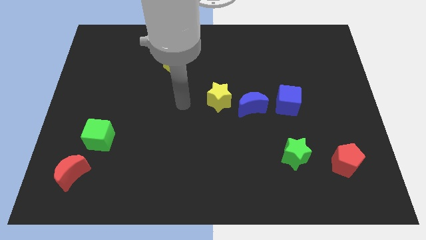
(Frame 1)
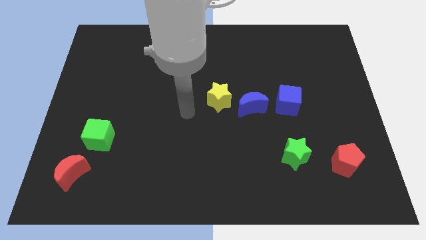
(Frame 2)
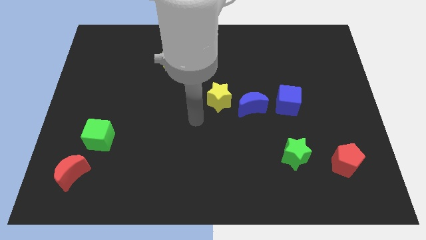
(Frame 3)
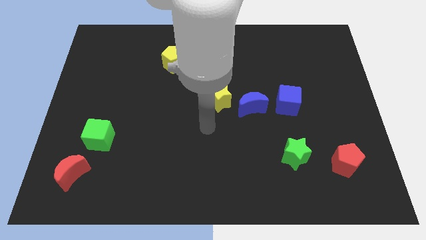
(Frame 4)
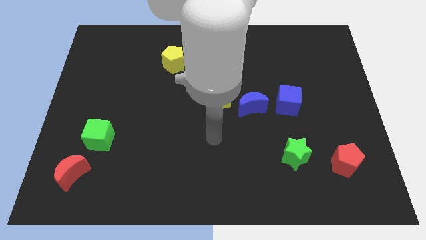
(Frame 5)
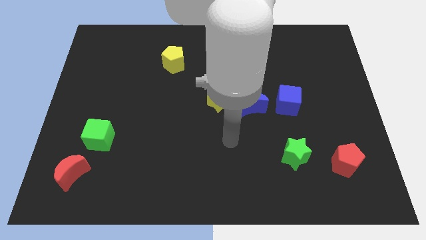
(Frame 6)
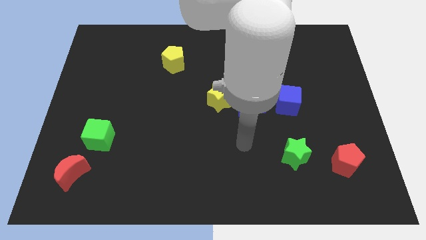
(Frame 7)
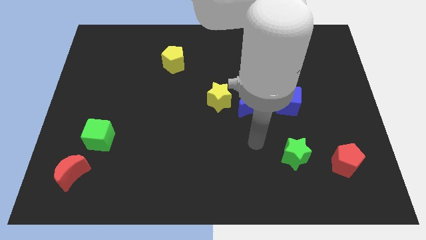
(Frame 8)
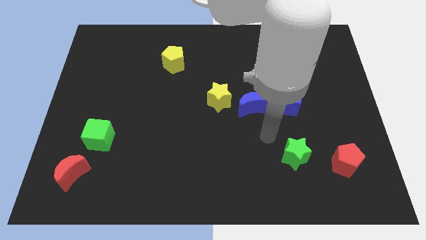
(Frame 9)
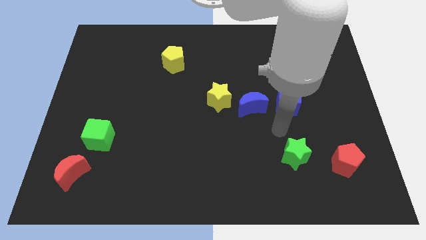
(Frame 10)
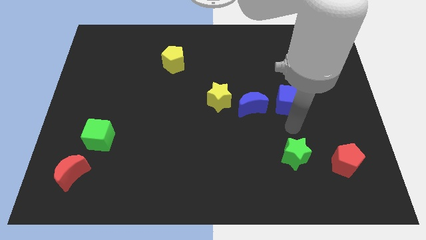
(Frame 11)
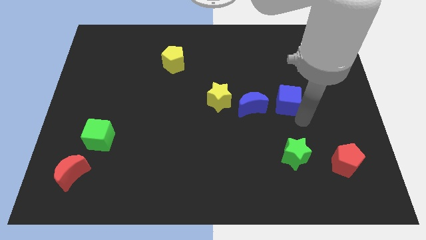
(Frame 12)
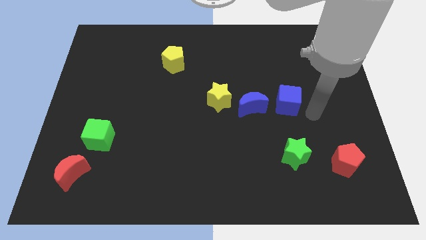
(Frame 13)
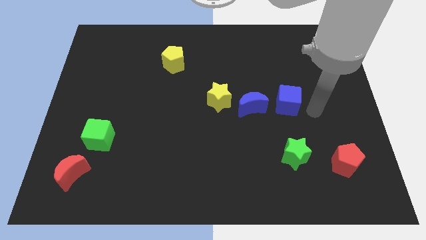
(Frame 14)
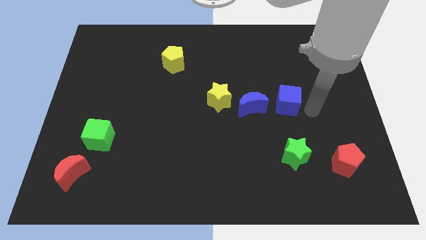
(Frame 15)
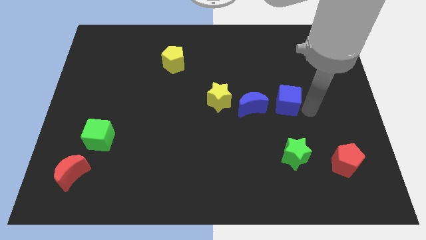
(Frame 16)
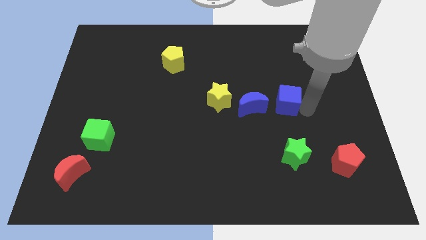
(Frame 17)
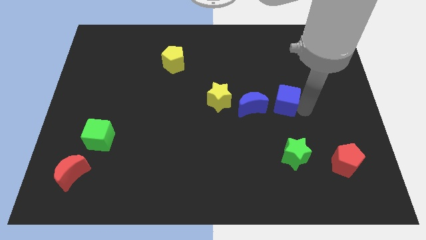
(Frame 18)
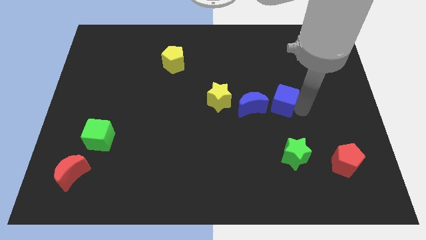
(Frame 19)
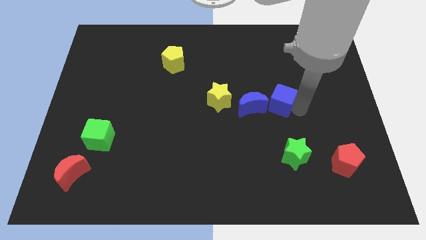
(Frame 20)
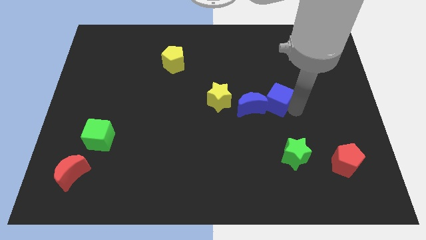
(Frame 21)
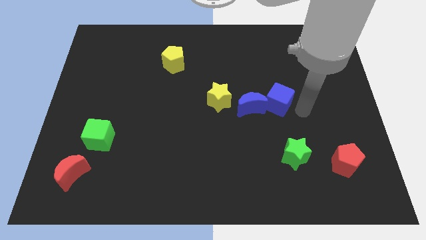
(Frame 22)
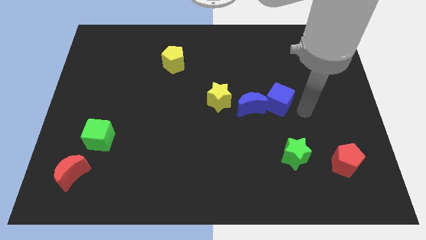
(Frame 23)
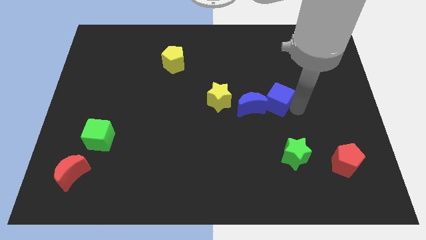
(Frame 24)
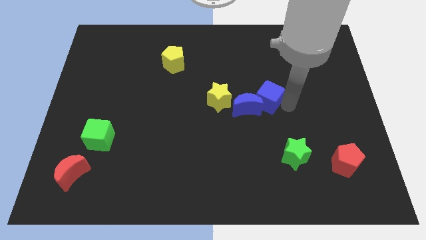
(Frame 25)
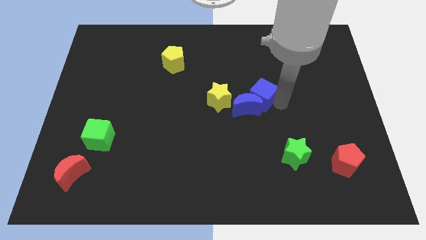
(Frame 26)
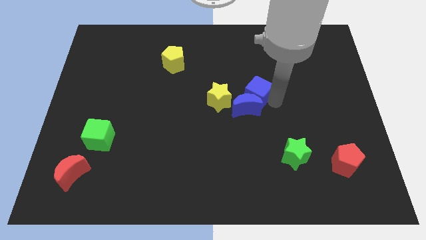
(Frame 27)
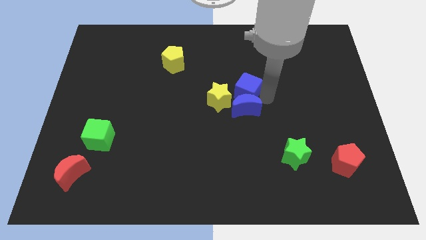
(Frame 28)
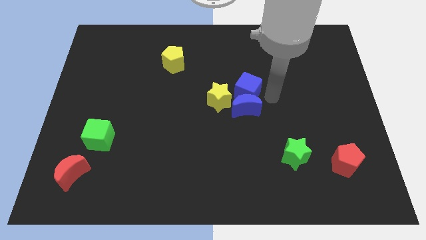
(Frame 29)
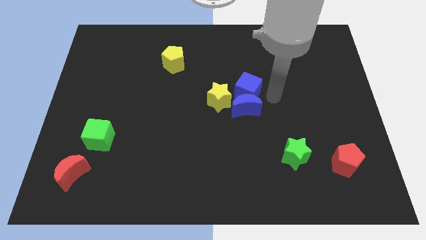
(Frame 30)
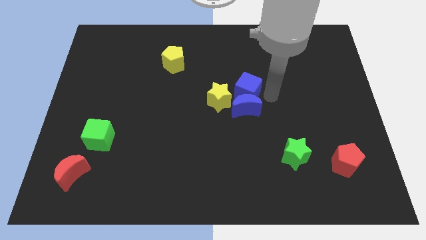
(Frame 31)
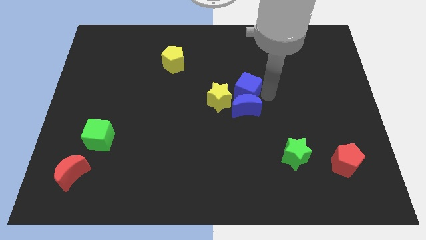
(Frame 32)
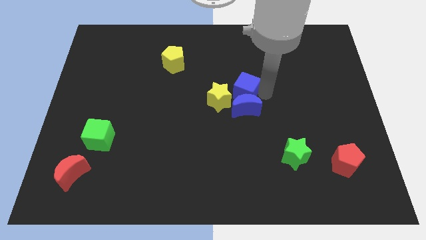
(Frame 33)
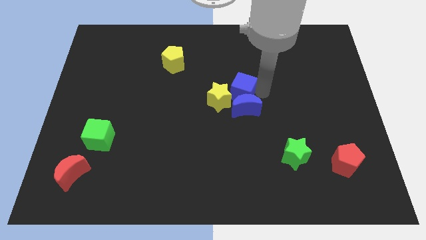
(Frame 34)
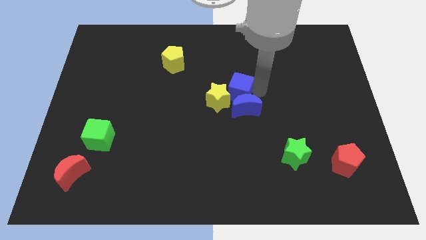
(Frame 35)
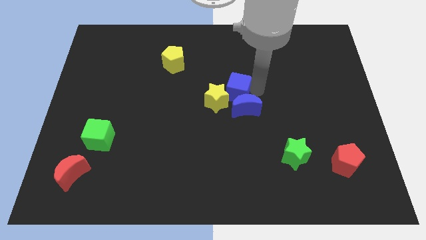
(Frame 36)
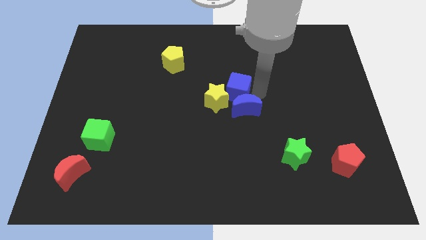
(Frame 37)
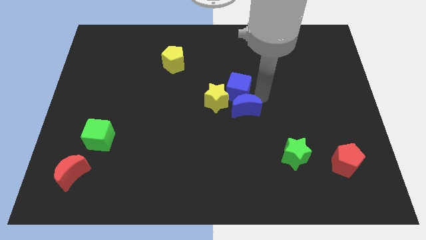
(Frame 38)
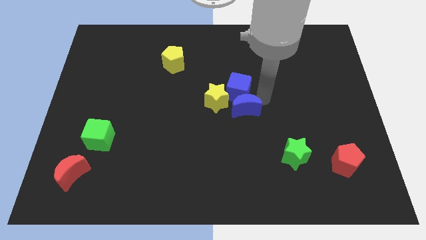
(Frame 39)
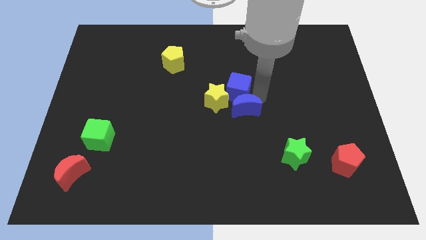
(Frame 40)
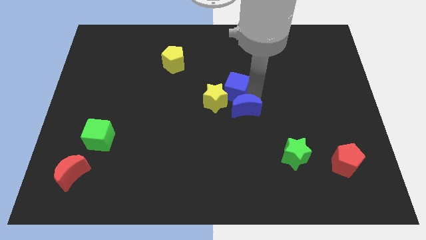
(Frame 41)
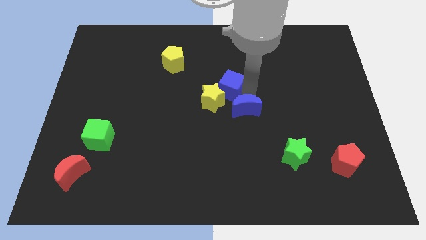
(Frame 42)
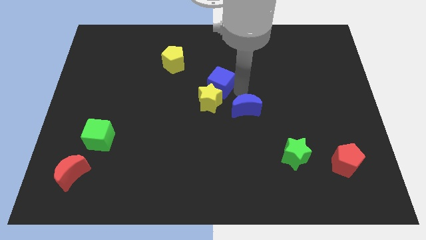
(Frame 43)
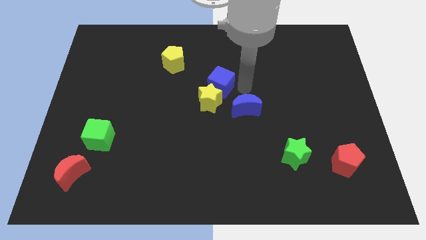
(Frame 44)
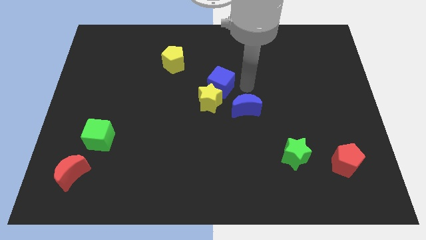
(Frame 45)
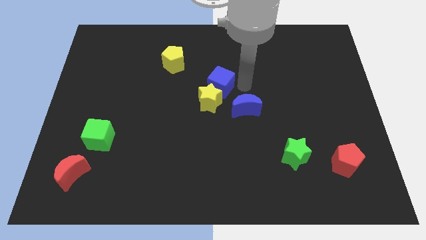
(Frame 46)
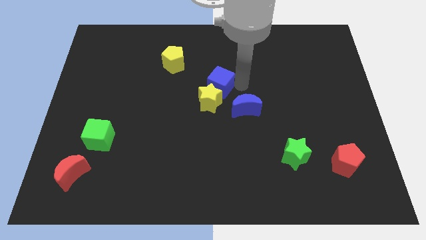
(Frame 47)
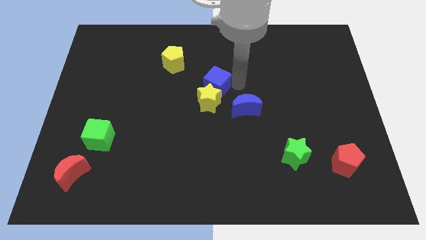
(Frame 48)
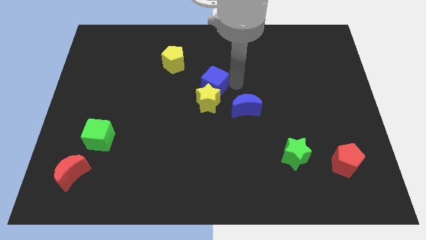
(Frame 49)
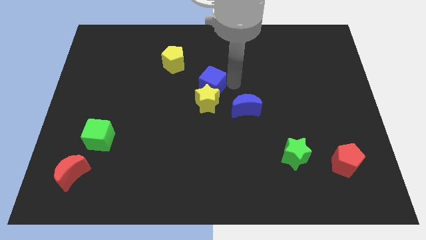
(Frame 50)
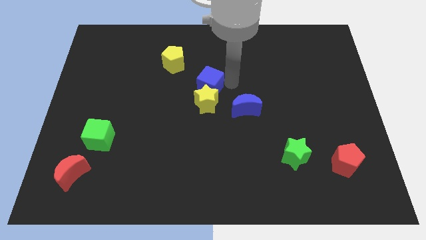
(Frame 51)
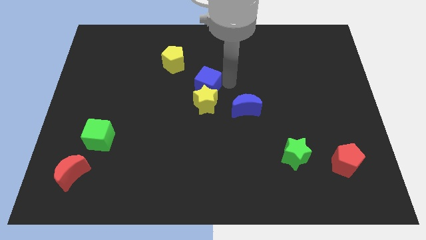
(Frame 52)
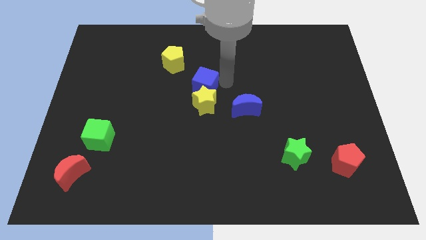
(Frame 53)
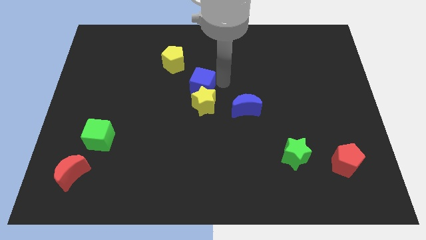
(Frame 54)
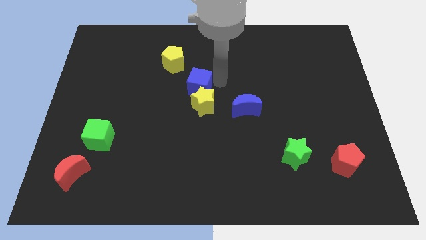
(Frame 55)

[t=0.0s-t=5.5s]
slide the blue cube left

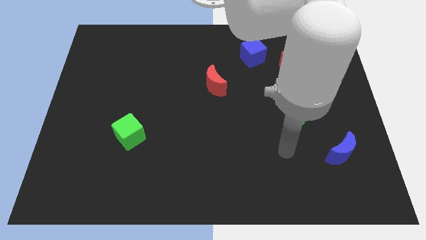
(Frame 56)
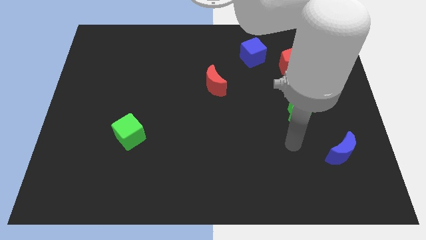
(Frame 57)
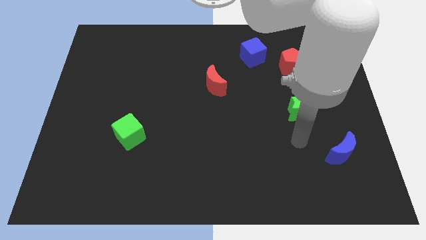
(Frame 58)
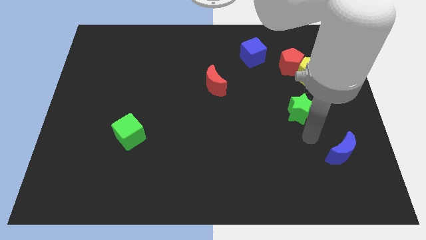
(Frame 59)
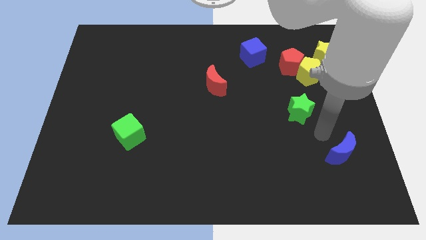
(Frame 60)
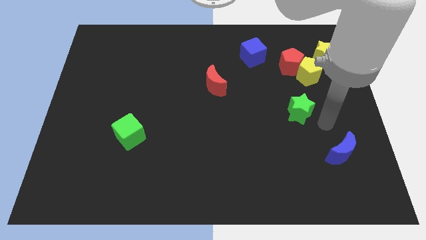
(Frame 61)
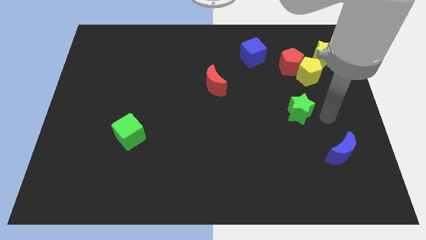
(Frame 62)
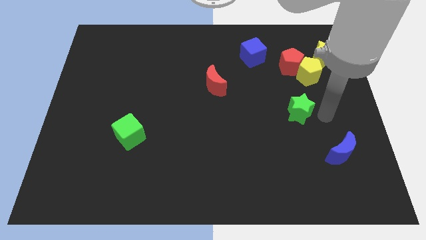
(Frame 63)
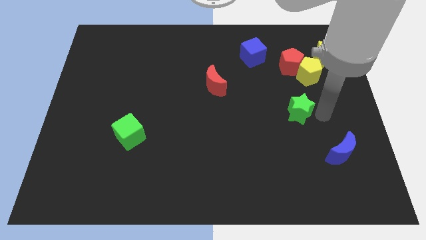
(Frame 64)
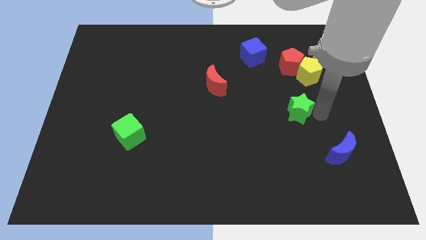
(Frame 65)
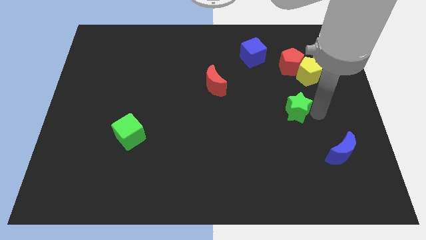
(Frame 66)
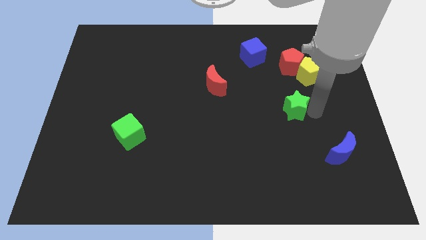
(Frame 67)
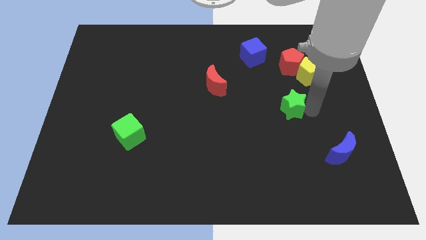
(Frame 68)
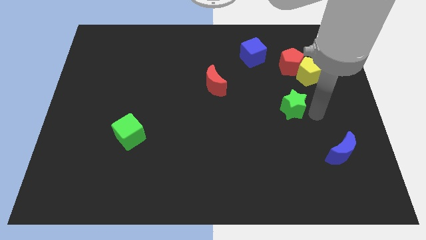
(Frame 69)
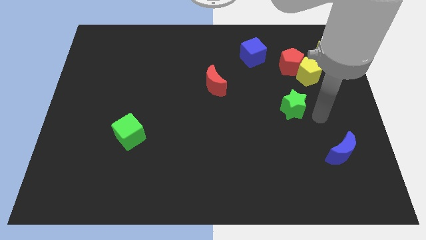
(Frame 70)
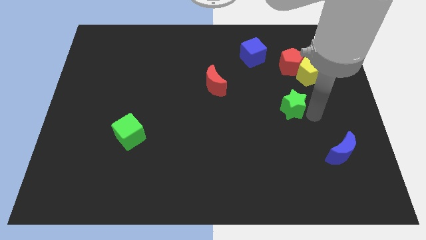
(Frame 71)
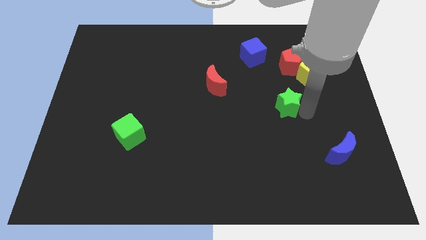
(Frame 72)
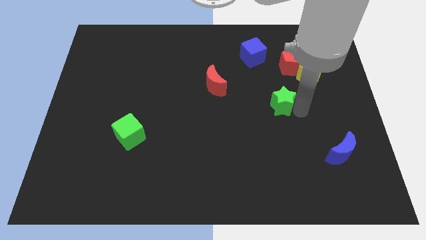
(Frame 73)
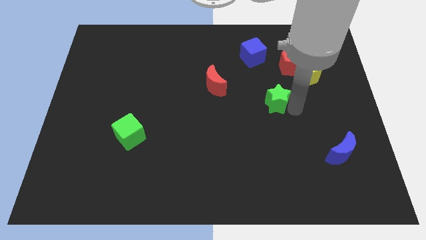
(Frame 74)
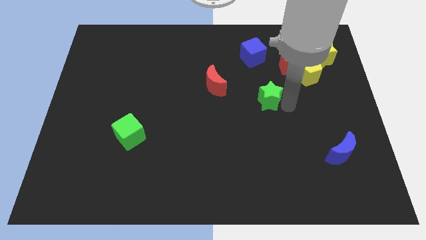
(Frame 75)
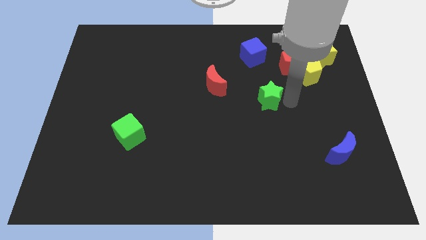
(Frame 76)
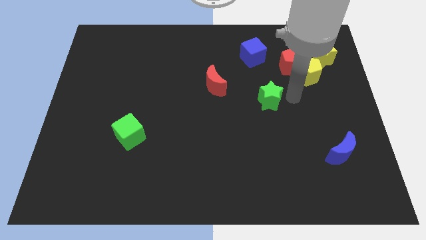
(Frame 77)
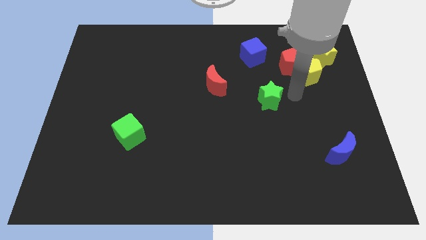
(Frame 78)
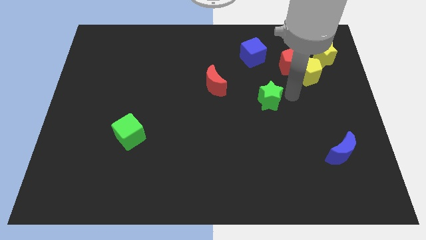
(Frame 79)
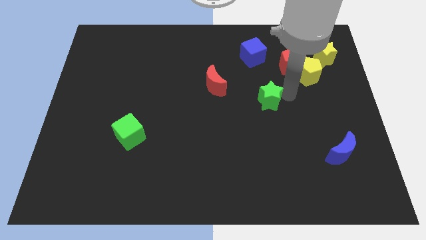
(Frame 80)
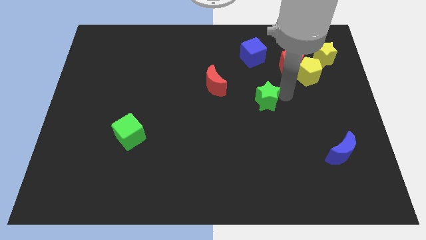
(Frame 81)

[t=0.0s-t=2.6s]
slightly move the green star left
